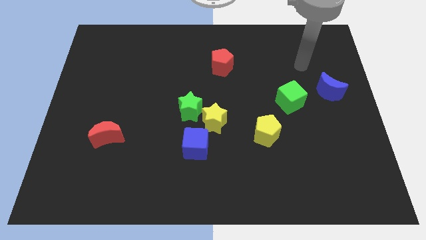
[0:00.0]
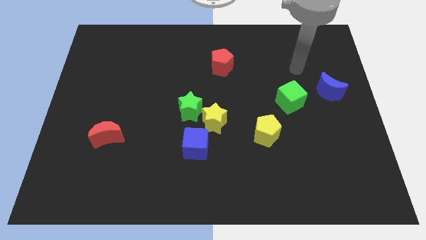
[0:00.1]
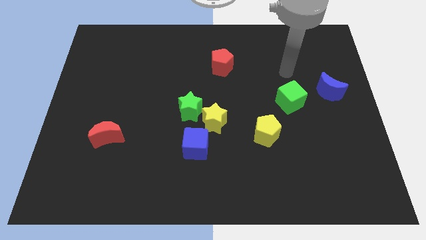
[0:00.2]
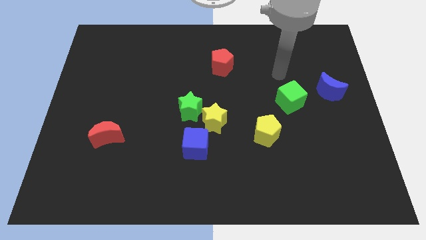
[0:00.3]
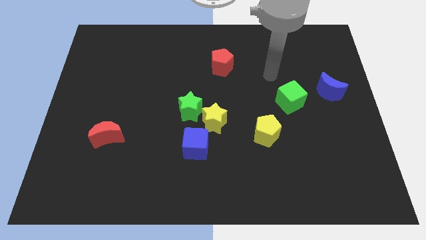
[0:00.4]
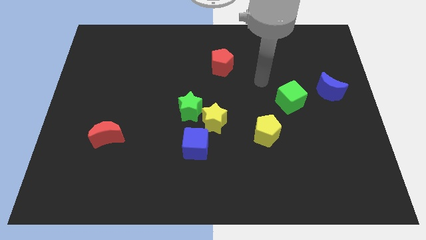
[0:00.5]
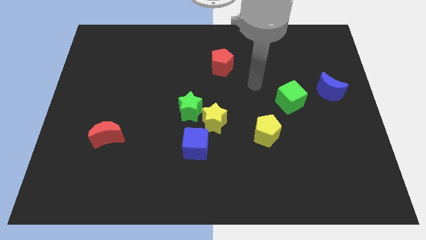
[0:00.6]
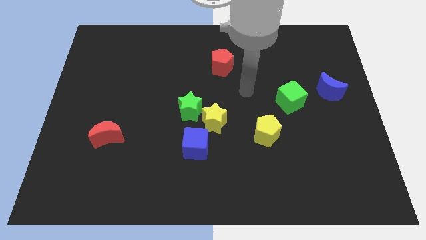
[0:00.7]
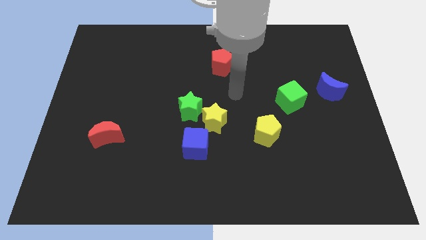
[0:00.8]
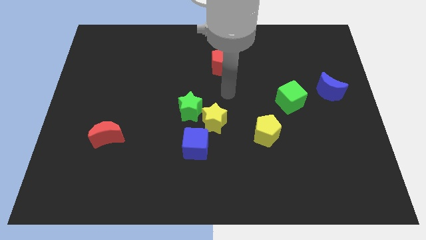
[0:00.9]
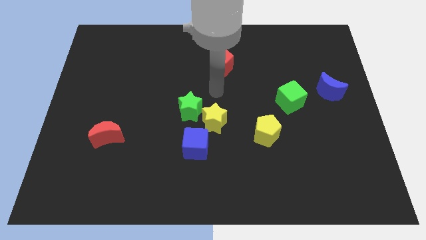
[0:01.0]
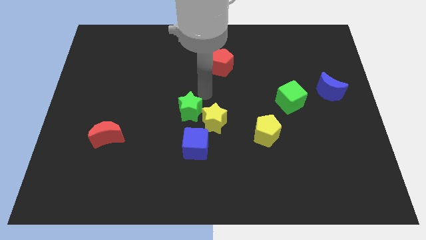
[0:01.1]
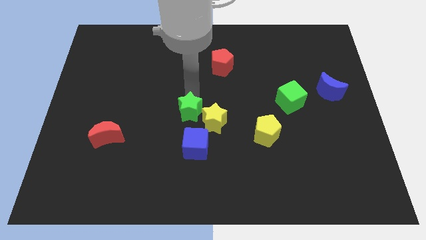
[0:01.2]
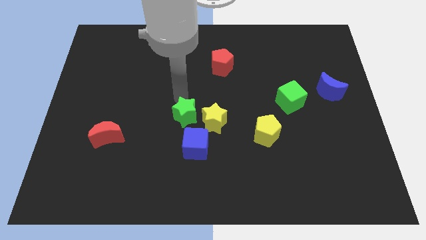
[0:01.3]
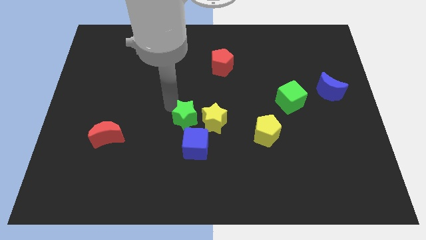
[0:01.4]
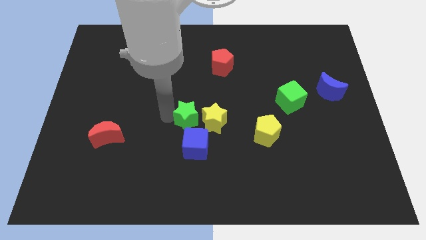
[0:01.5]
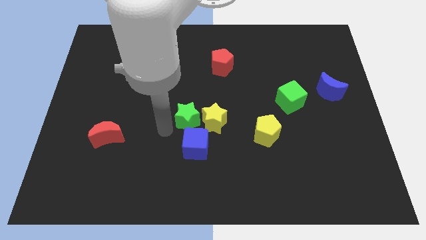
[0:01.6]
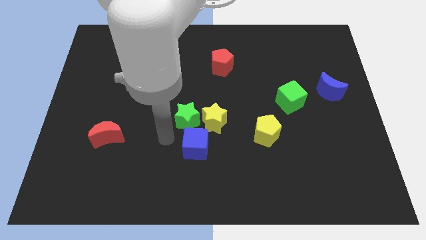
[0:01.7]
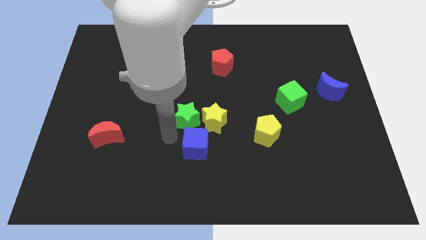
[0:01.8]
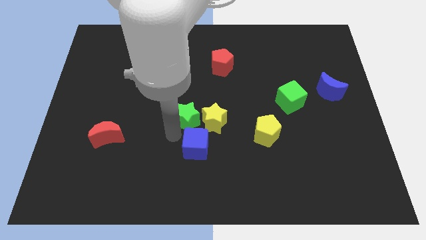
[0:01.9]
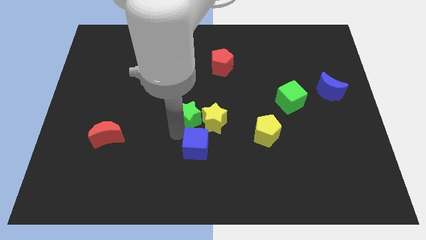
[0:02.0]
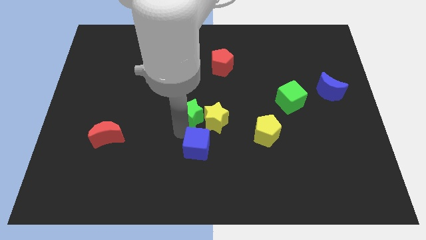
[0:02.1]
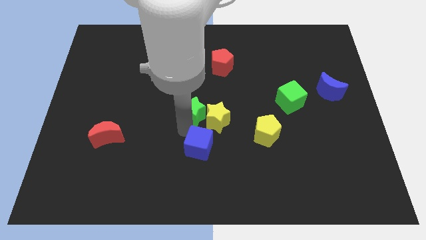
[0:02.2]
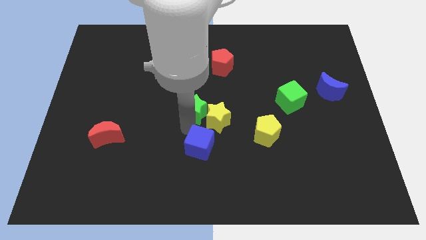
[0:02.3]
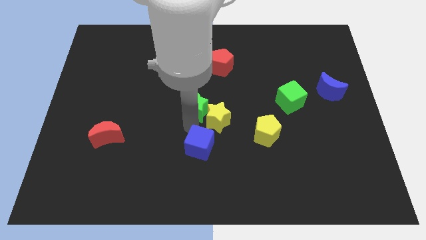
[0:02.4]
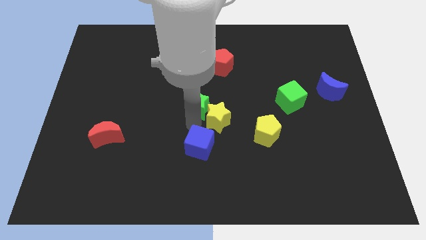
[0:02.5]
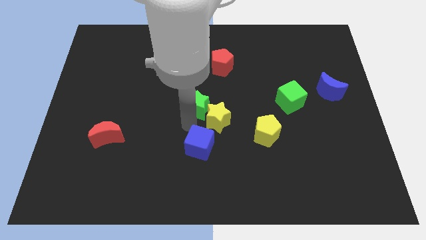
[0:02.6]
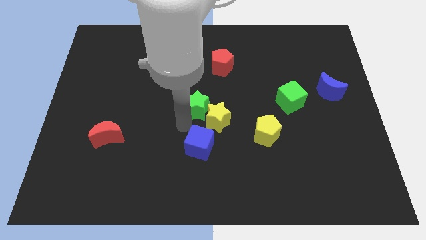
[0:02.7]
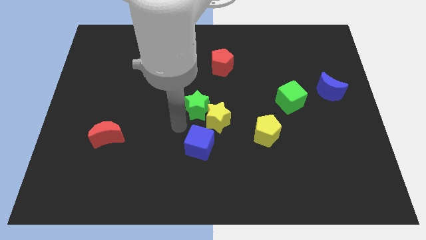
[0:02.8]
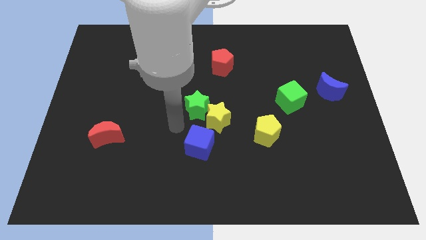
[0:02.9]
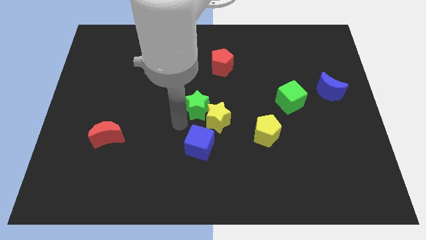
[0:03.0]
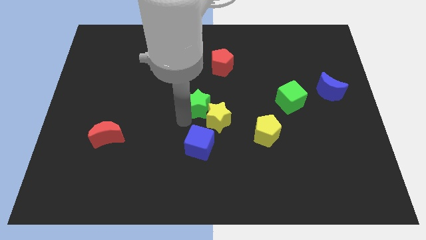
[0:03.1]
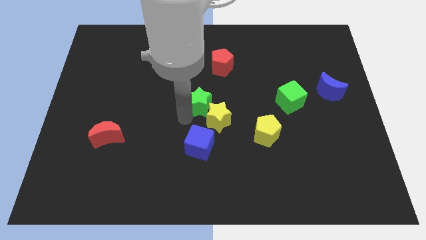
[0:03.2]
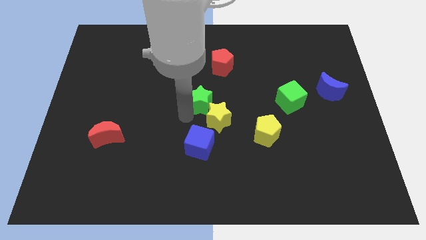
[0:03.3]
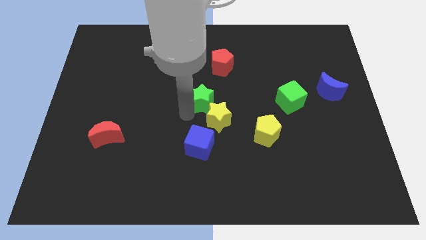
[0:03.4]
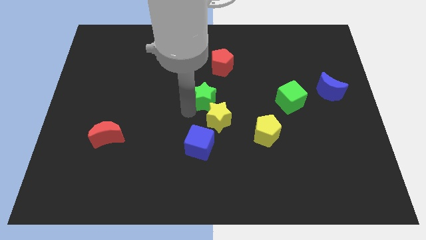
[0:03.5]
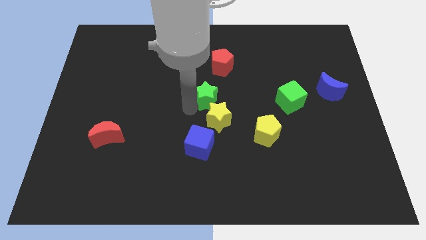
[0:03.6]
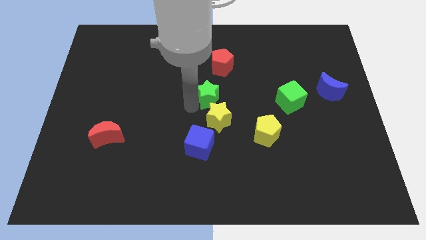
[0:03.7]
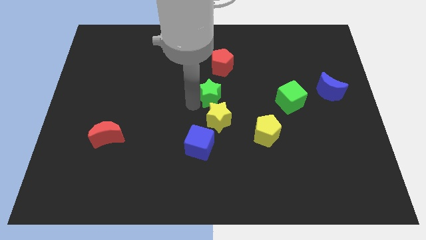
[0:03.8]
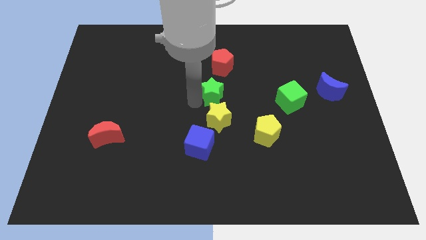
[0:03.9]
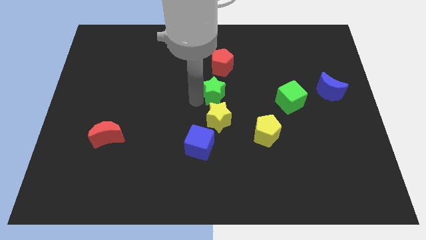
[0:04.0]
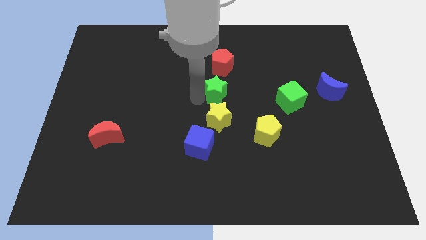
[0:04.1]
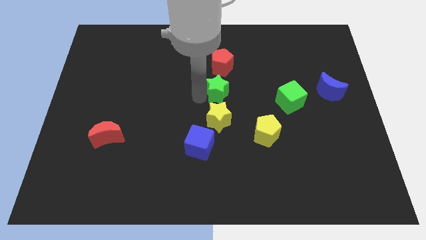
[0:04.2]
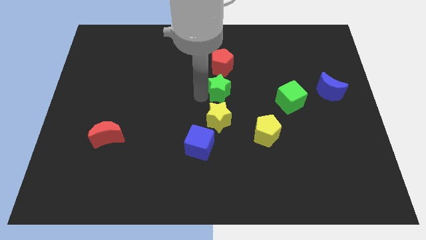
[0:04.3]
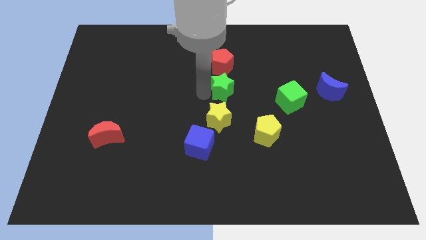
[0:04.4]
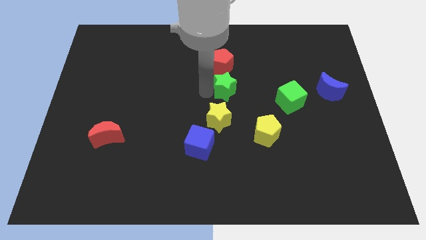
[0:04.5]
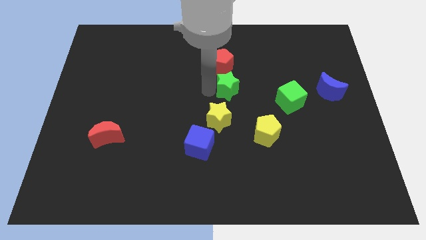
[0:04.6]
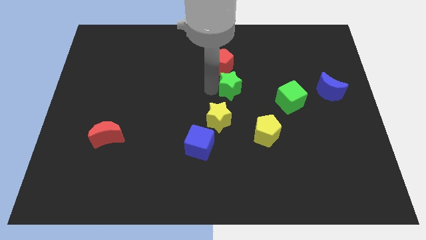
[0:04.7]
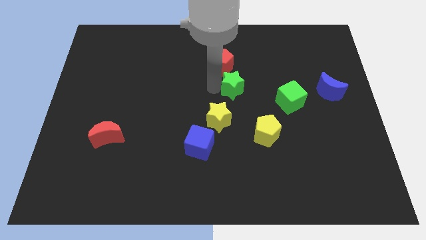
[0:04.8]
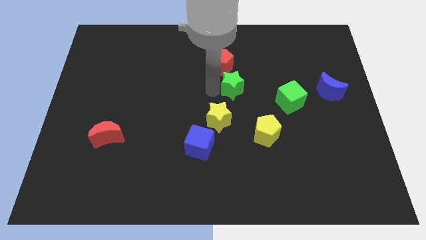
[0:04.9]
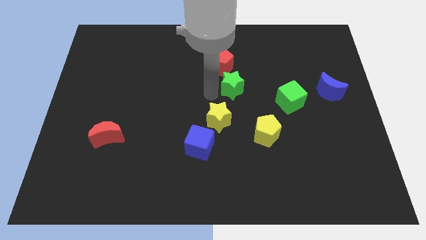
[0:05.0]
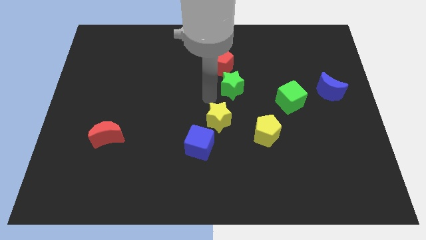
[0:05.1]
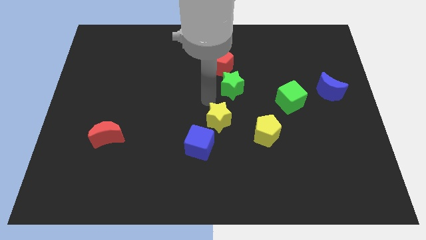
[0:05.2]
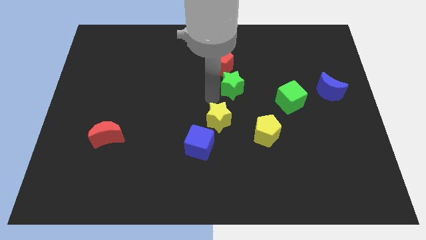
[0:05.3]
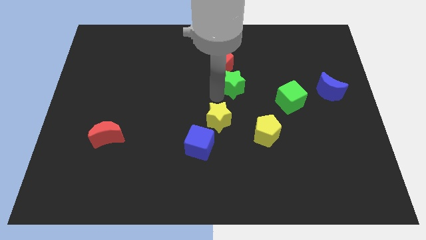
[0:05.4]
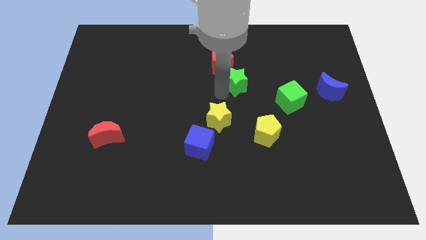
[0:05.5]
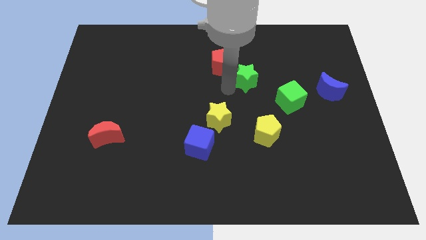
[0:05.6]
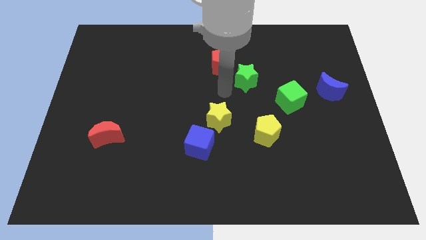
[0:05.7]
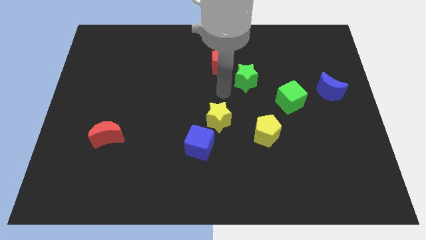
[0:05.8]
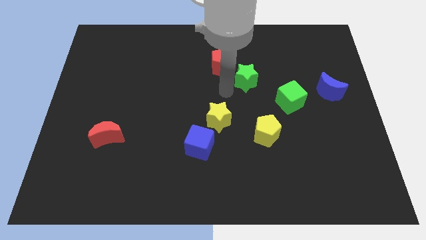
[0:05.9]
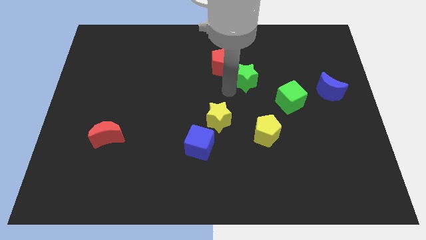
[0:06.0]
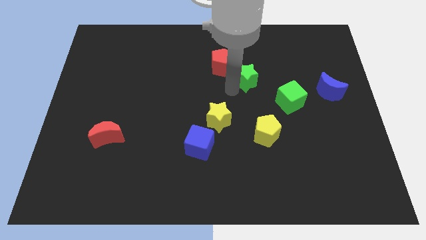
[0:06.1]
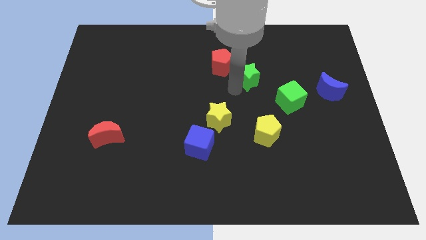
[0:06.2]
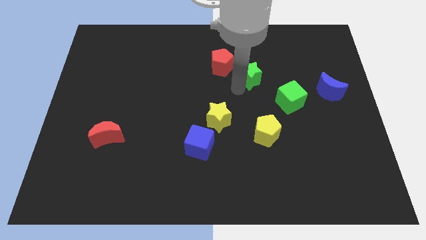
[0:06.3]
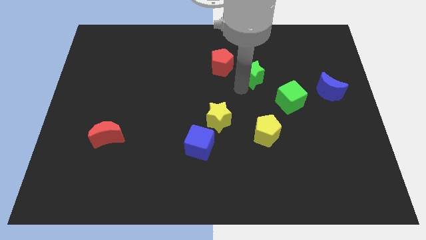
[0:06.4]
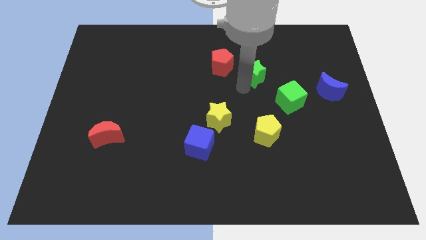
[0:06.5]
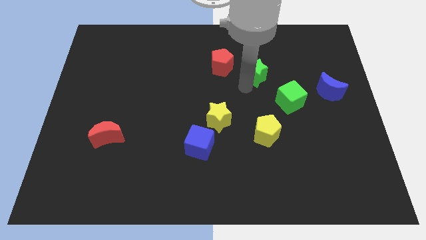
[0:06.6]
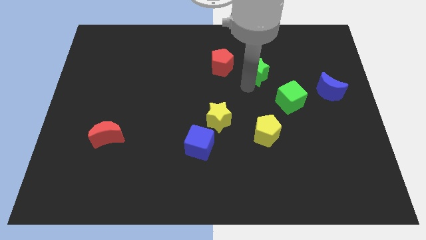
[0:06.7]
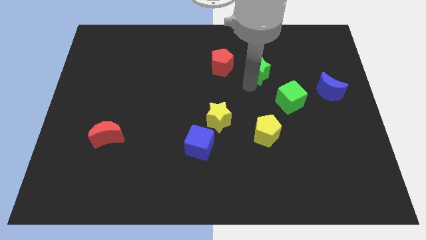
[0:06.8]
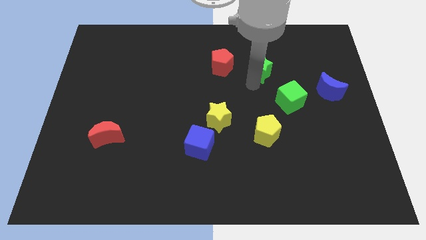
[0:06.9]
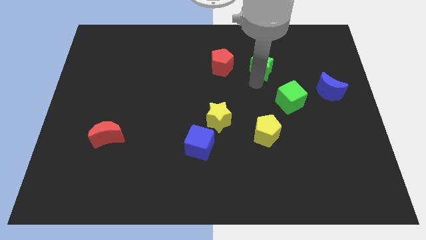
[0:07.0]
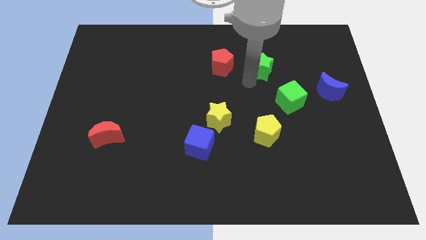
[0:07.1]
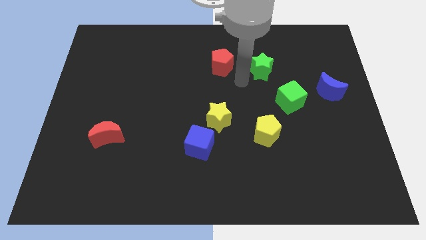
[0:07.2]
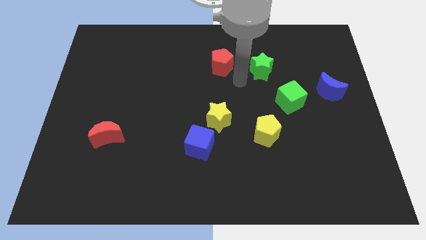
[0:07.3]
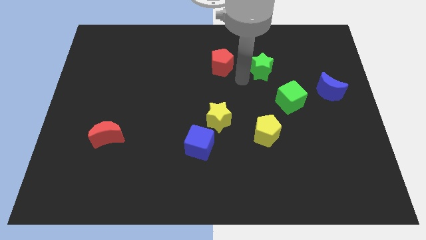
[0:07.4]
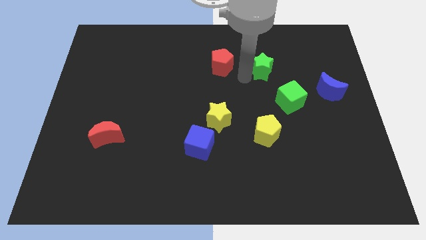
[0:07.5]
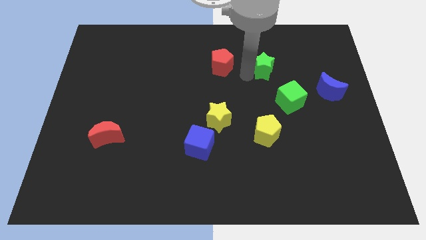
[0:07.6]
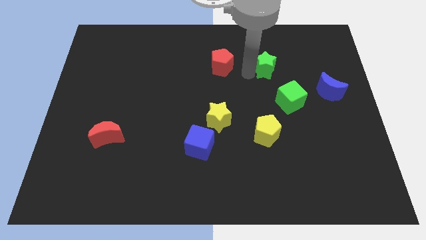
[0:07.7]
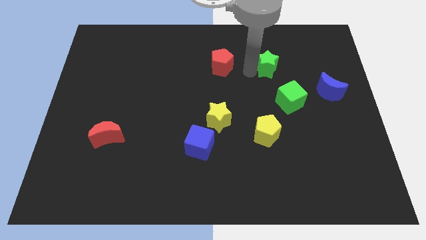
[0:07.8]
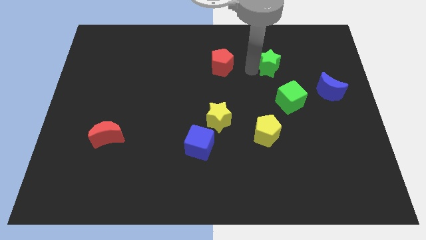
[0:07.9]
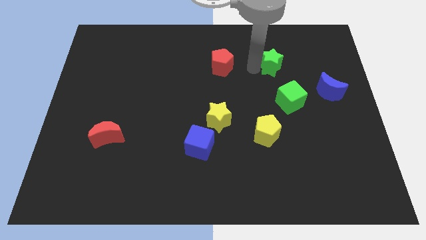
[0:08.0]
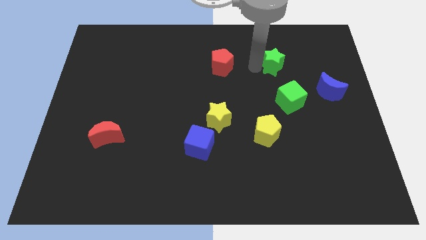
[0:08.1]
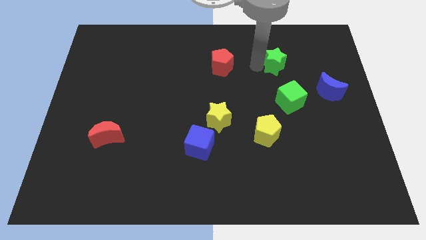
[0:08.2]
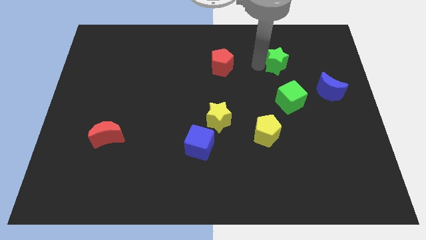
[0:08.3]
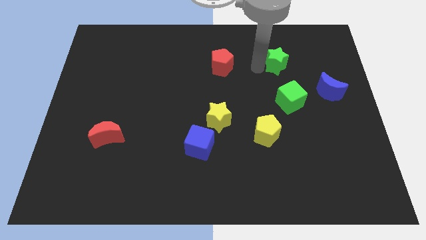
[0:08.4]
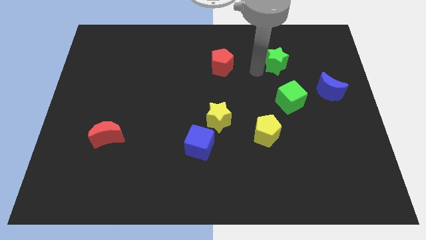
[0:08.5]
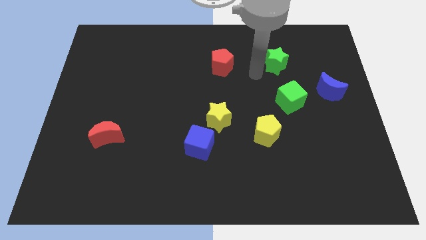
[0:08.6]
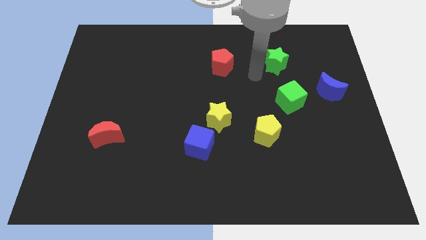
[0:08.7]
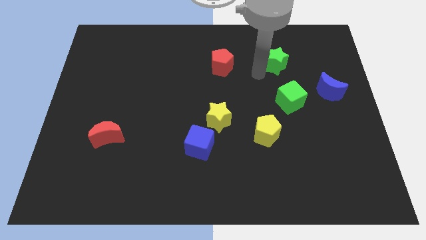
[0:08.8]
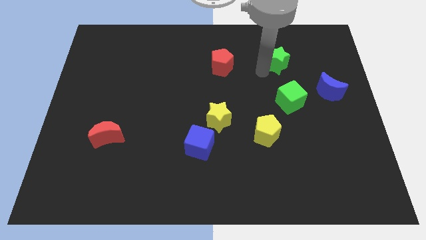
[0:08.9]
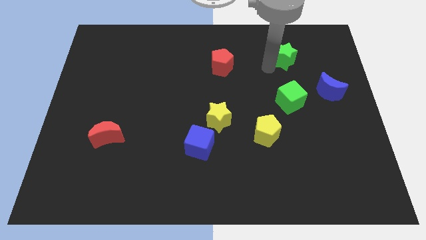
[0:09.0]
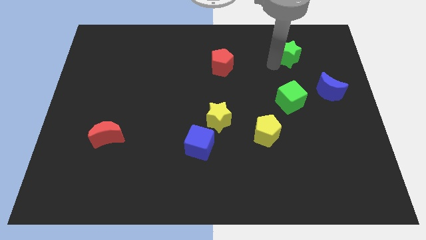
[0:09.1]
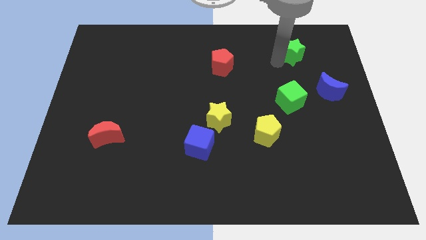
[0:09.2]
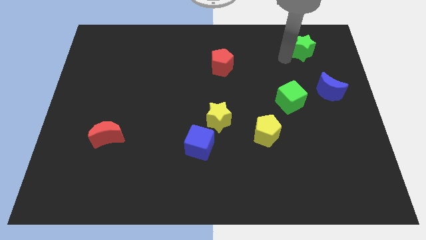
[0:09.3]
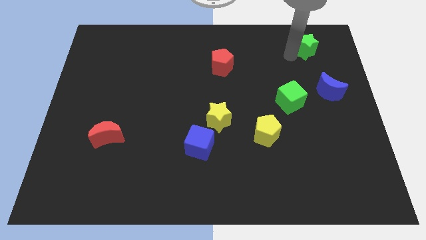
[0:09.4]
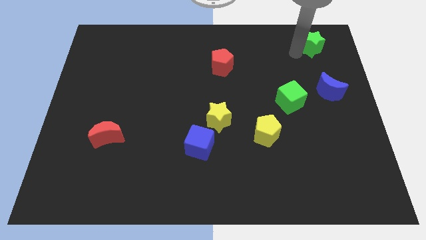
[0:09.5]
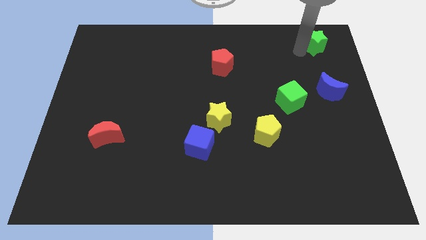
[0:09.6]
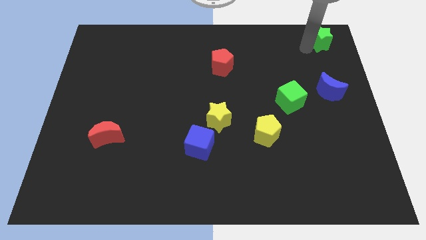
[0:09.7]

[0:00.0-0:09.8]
slide the green star to the top right corner
